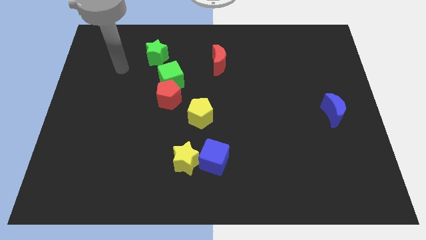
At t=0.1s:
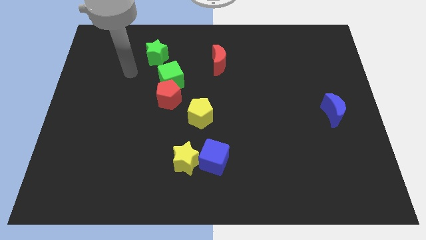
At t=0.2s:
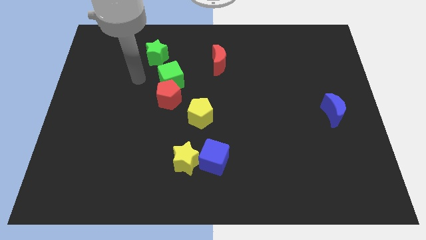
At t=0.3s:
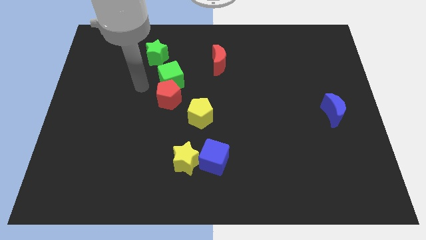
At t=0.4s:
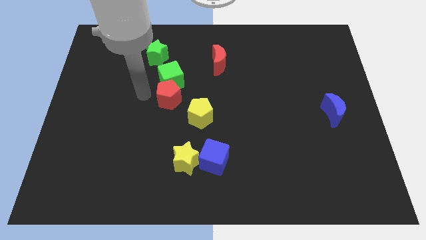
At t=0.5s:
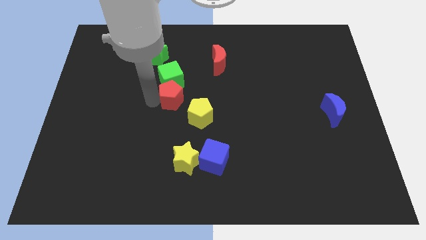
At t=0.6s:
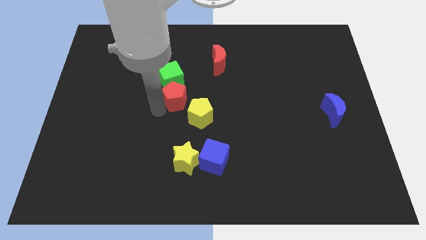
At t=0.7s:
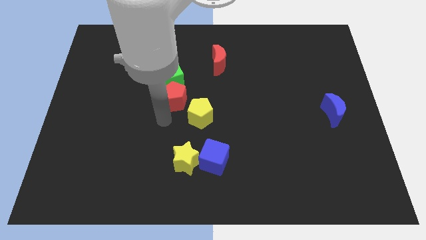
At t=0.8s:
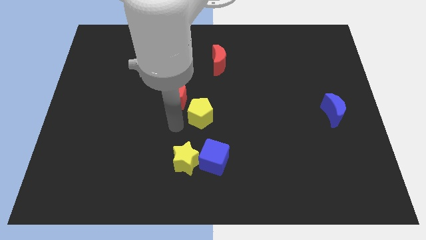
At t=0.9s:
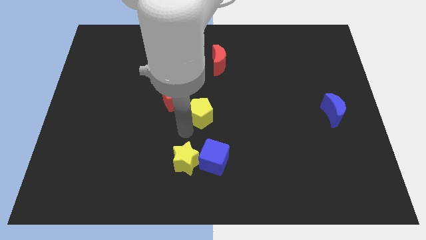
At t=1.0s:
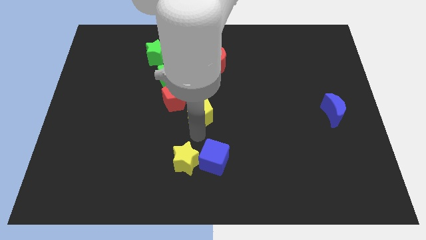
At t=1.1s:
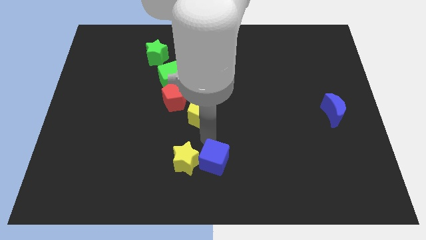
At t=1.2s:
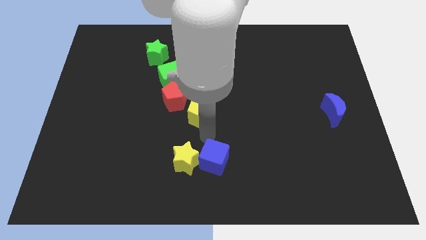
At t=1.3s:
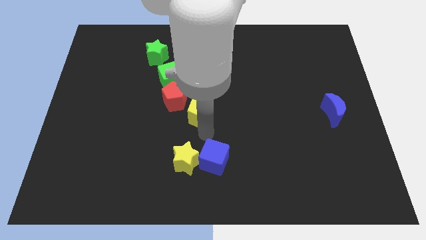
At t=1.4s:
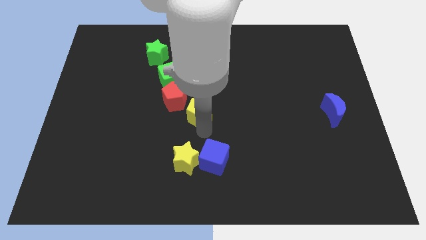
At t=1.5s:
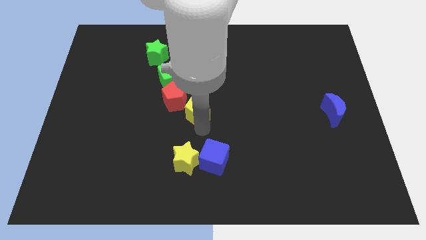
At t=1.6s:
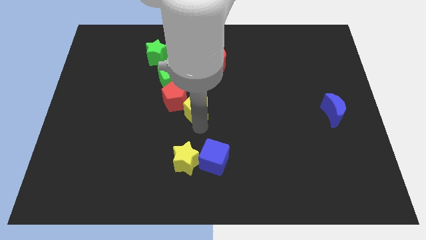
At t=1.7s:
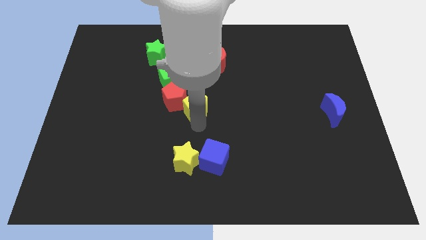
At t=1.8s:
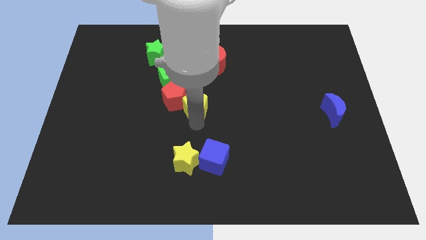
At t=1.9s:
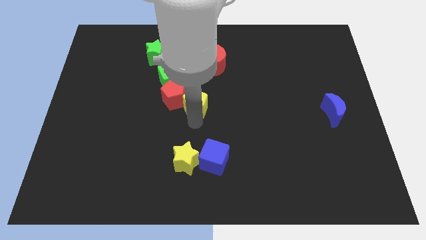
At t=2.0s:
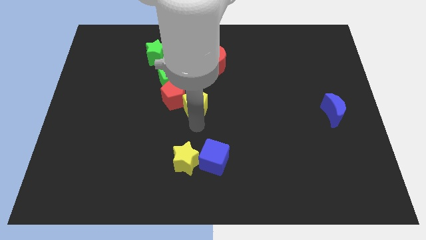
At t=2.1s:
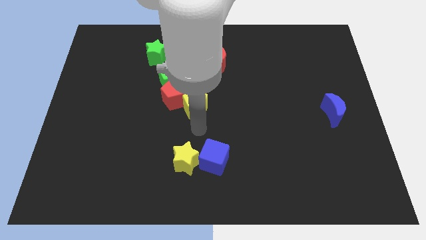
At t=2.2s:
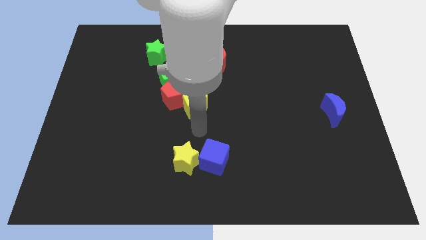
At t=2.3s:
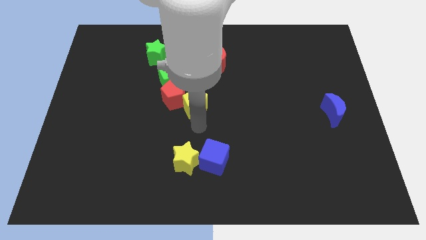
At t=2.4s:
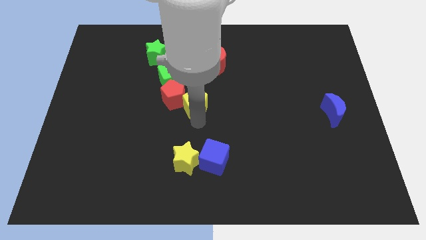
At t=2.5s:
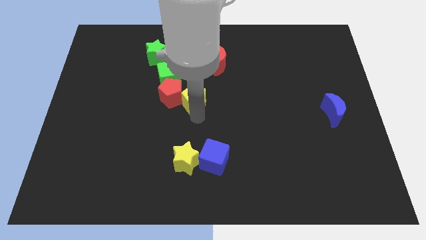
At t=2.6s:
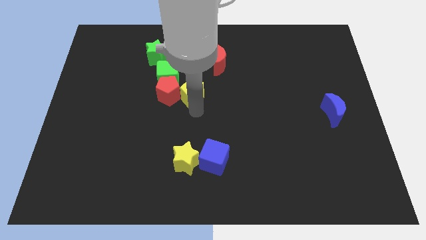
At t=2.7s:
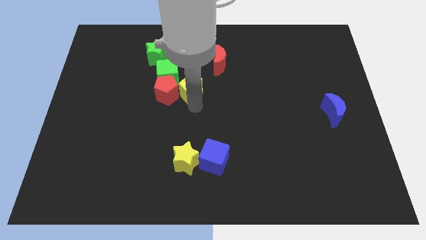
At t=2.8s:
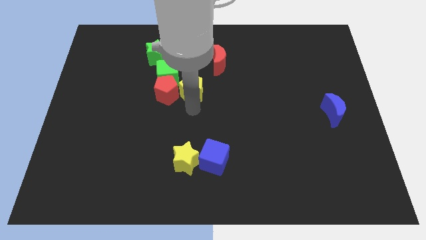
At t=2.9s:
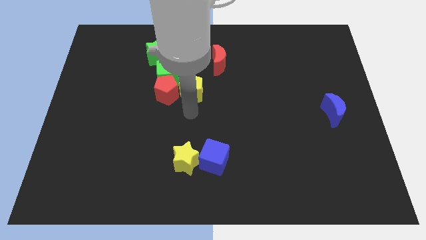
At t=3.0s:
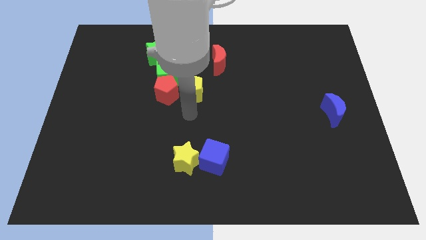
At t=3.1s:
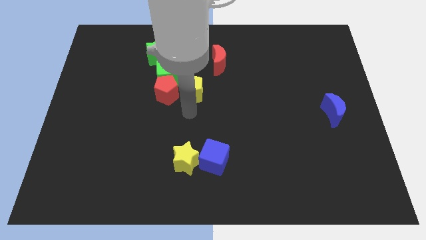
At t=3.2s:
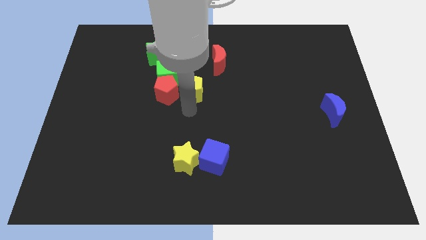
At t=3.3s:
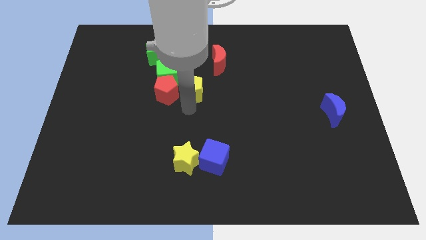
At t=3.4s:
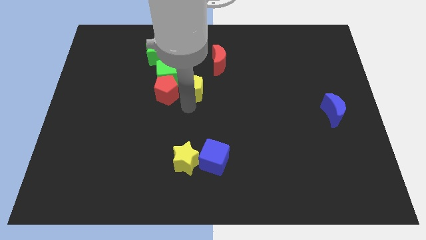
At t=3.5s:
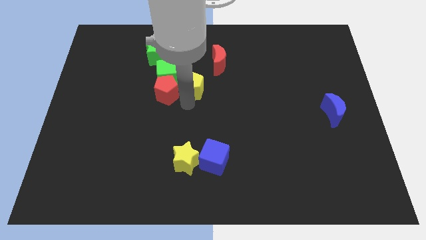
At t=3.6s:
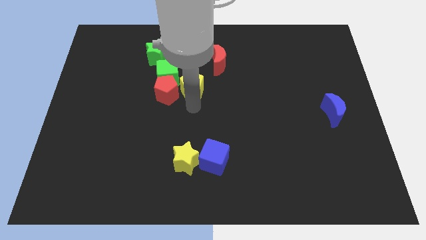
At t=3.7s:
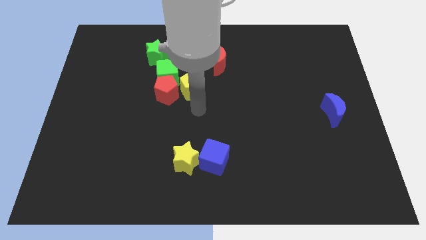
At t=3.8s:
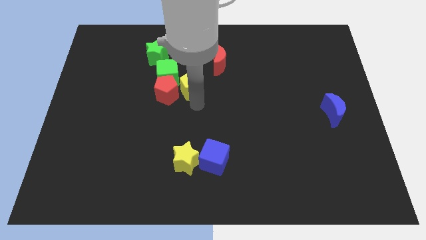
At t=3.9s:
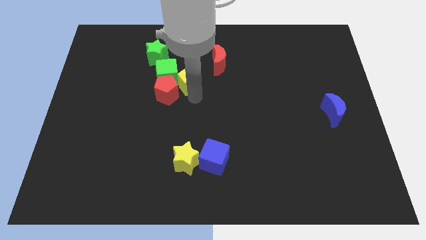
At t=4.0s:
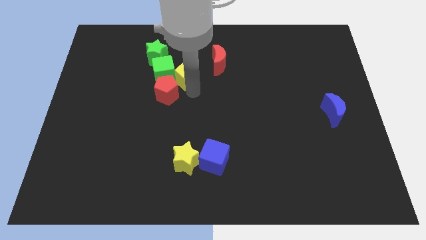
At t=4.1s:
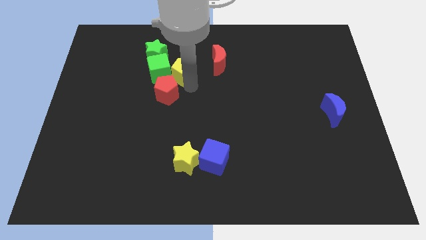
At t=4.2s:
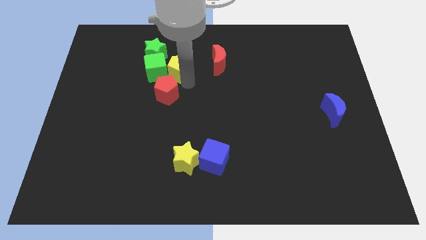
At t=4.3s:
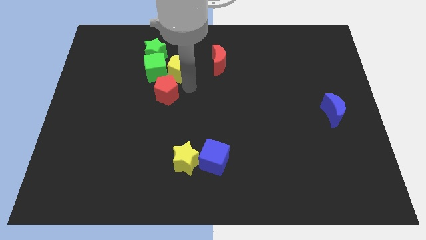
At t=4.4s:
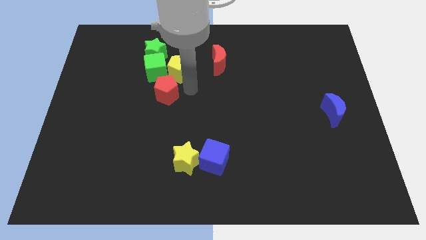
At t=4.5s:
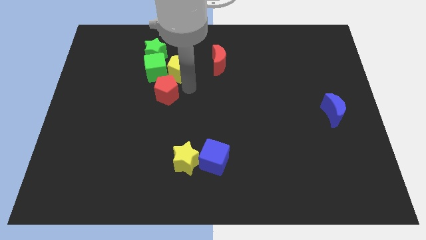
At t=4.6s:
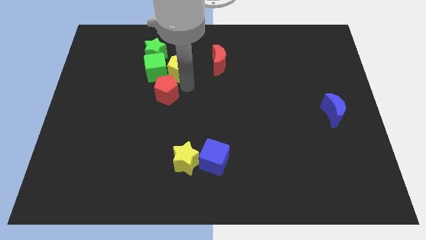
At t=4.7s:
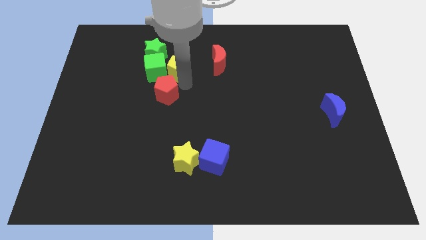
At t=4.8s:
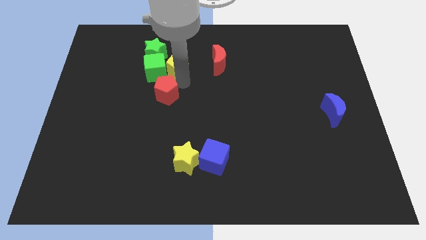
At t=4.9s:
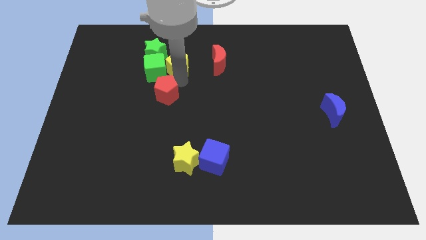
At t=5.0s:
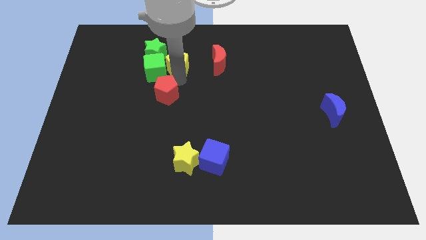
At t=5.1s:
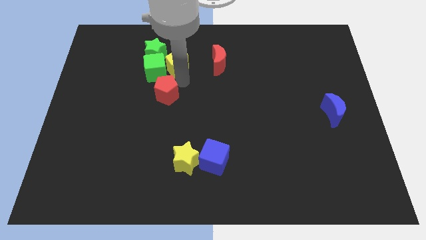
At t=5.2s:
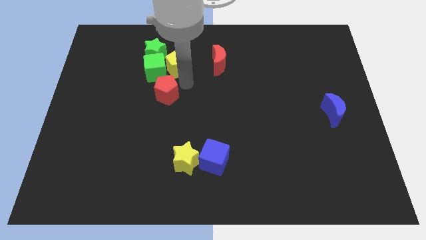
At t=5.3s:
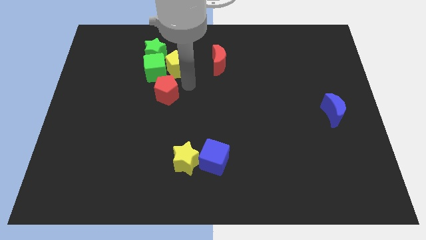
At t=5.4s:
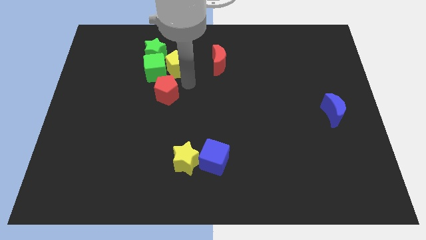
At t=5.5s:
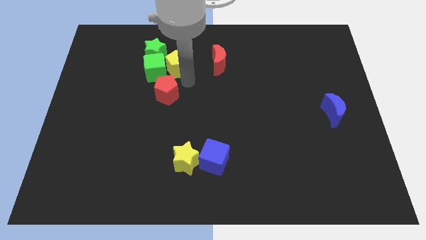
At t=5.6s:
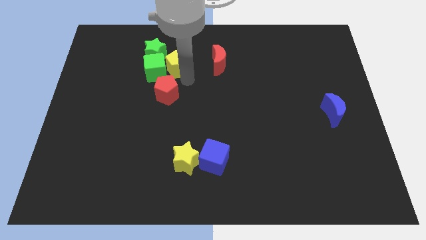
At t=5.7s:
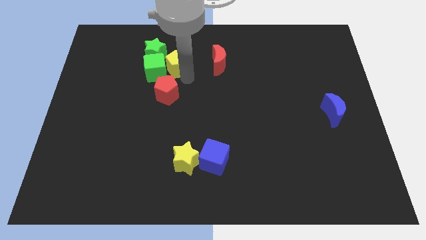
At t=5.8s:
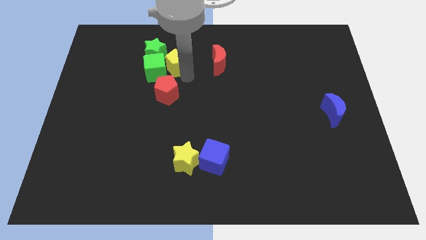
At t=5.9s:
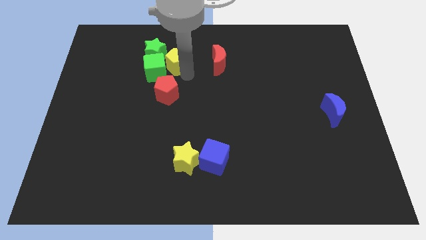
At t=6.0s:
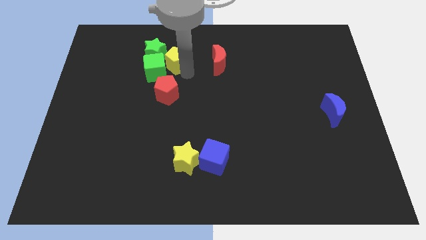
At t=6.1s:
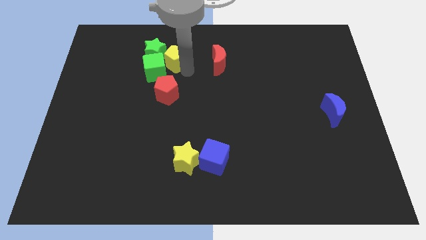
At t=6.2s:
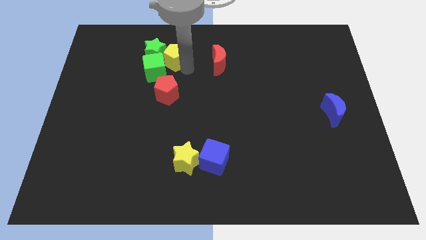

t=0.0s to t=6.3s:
put the yellow pentagon close to the green star
